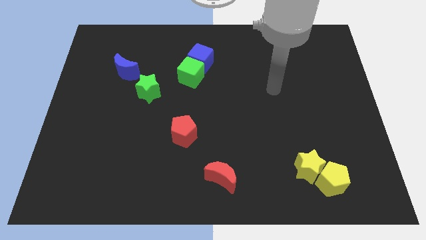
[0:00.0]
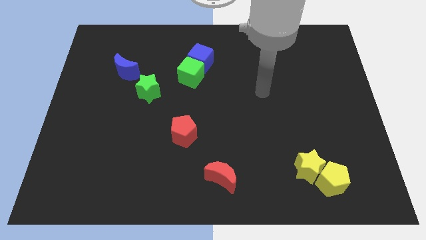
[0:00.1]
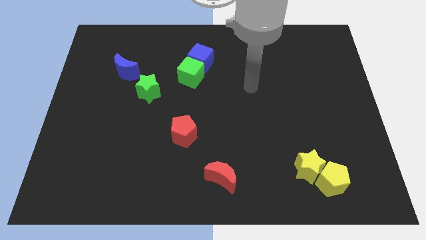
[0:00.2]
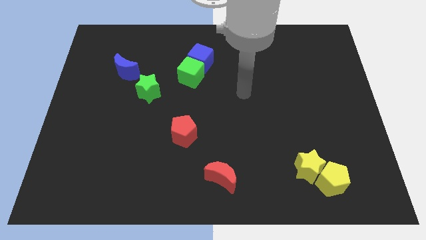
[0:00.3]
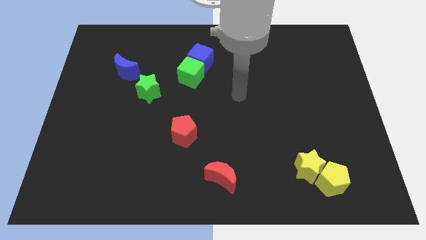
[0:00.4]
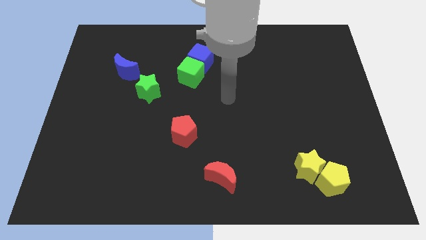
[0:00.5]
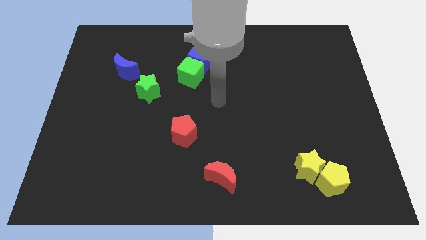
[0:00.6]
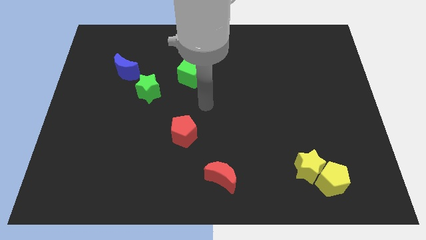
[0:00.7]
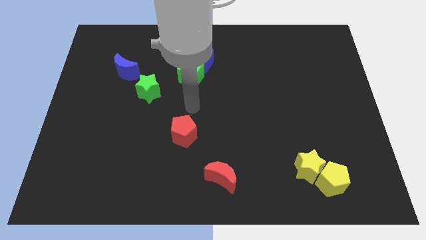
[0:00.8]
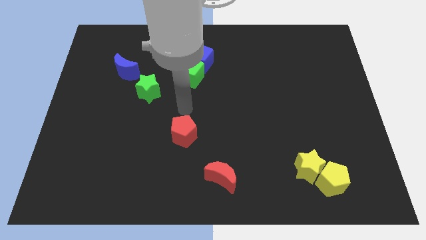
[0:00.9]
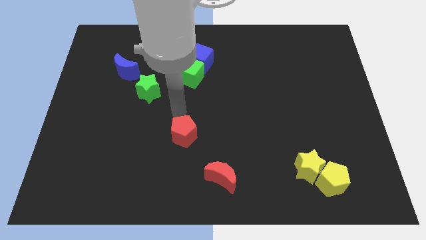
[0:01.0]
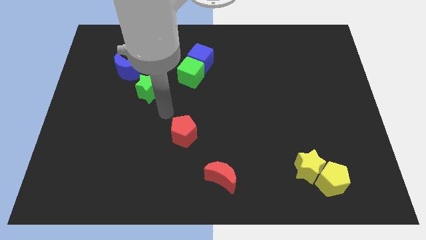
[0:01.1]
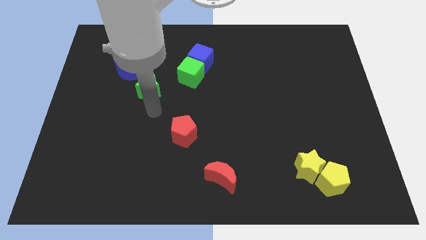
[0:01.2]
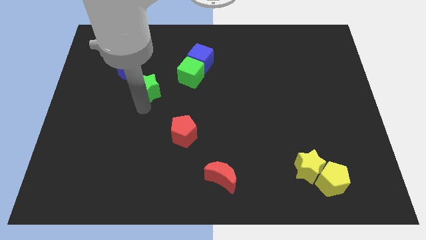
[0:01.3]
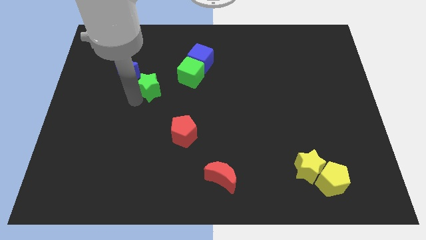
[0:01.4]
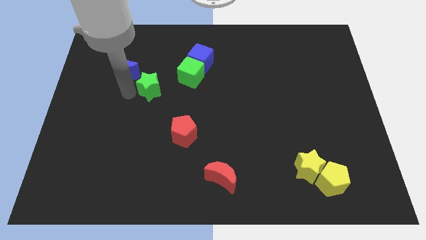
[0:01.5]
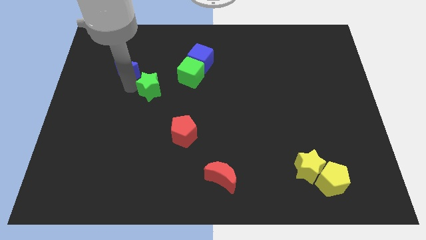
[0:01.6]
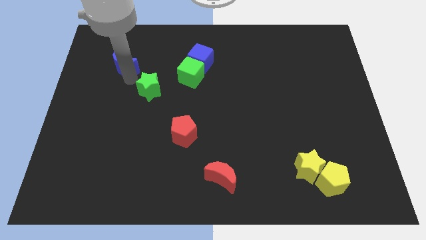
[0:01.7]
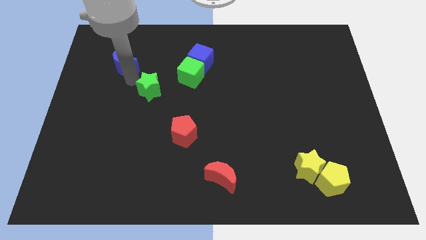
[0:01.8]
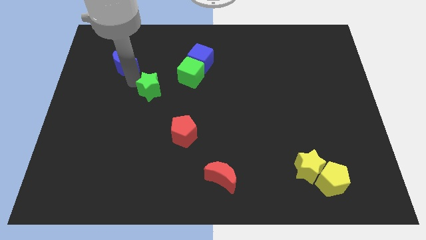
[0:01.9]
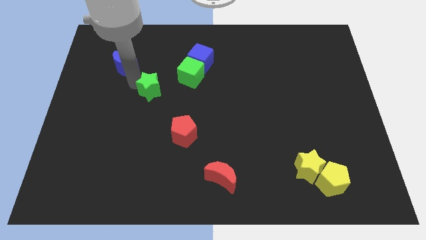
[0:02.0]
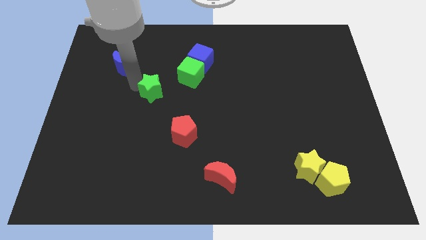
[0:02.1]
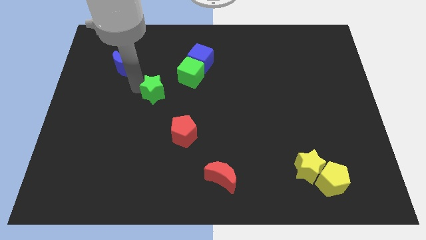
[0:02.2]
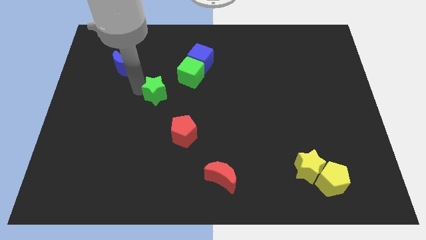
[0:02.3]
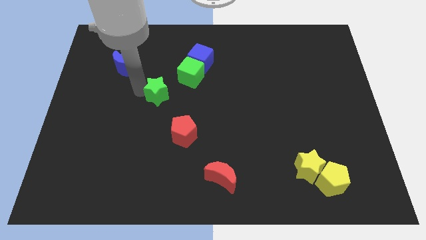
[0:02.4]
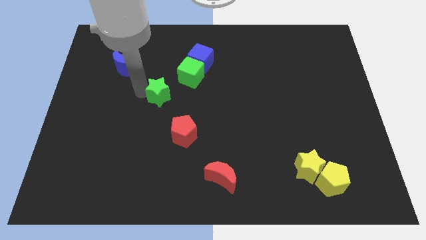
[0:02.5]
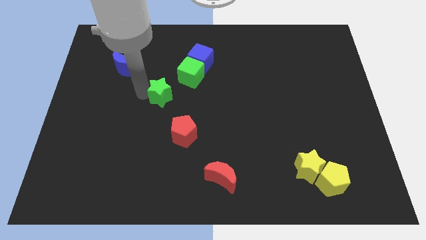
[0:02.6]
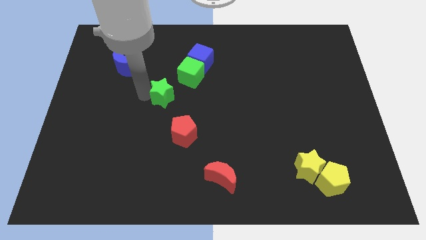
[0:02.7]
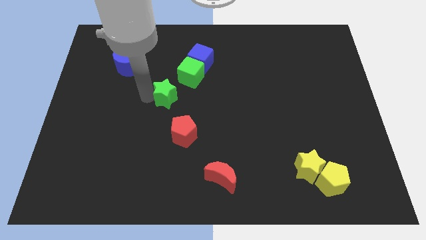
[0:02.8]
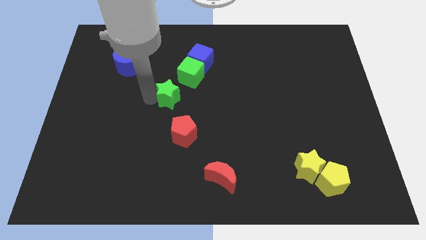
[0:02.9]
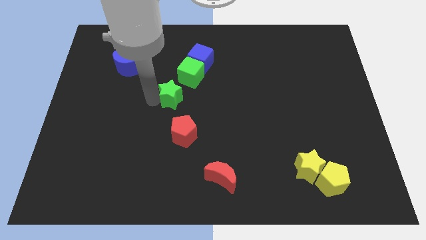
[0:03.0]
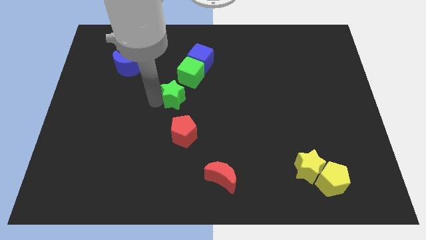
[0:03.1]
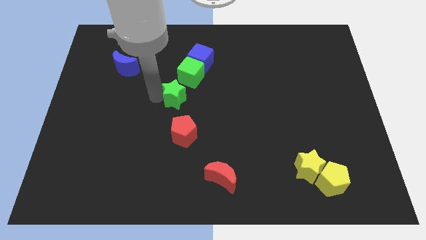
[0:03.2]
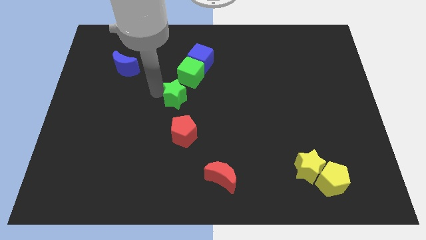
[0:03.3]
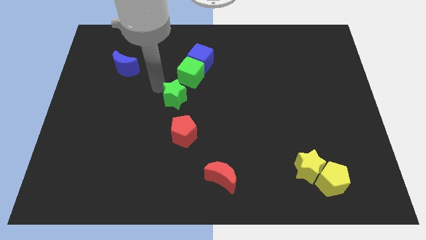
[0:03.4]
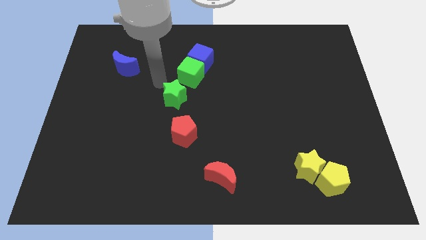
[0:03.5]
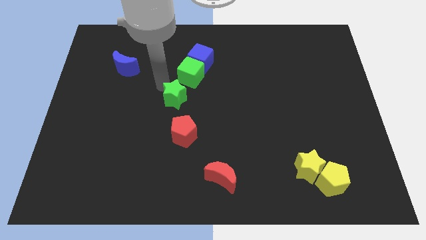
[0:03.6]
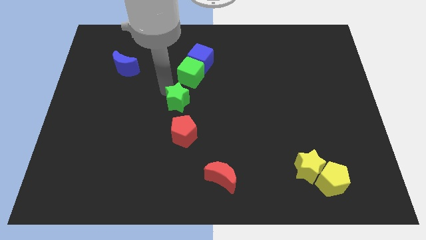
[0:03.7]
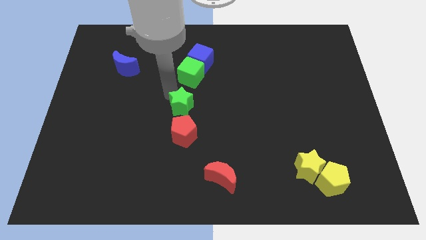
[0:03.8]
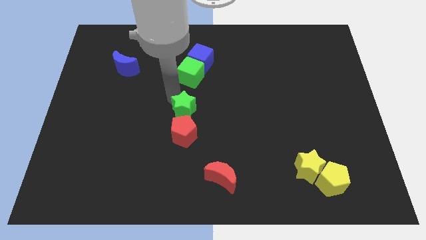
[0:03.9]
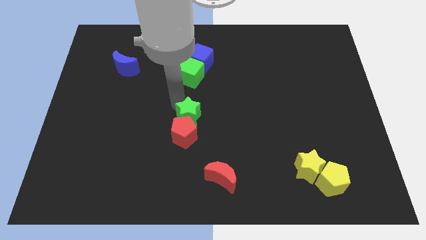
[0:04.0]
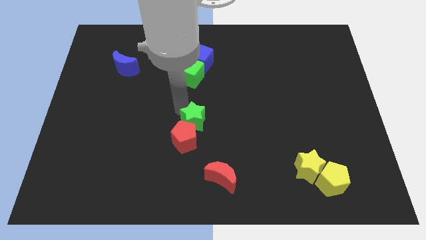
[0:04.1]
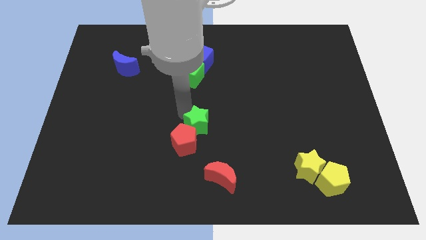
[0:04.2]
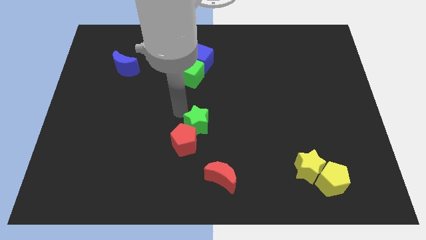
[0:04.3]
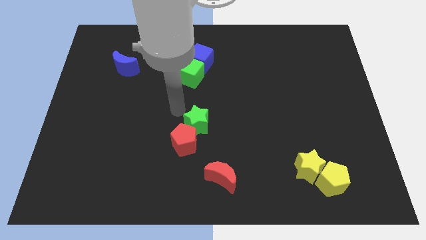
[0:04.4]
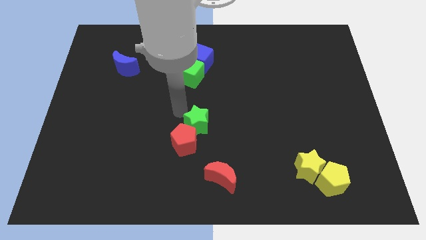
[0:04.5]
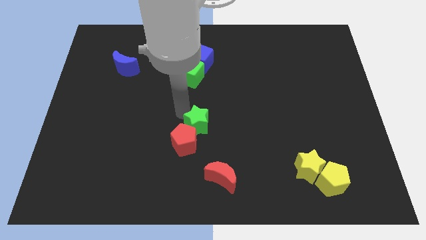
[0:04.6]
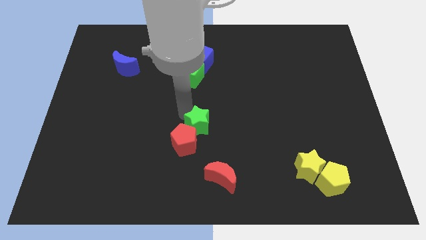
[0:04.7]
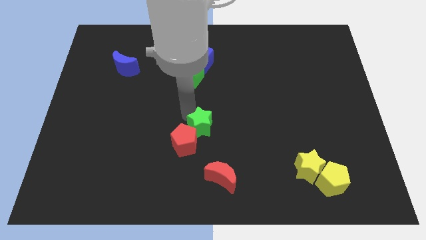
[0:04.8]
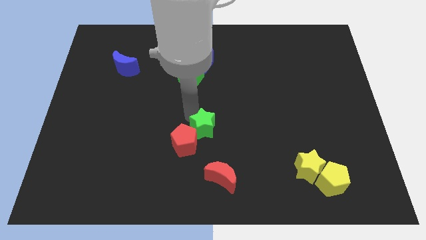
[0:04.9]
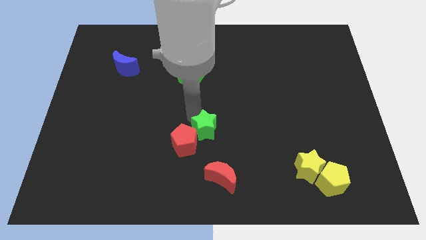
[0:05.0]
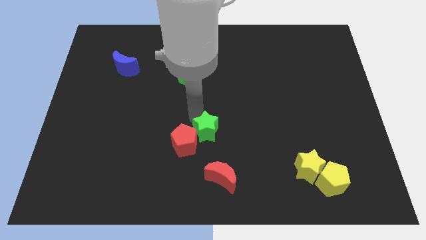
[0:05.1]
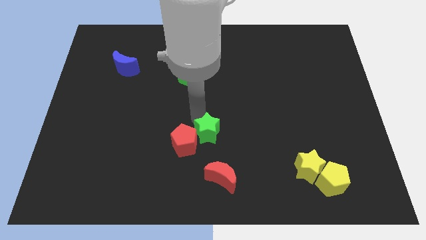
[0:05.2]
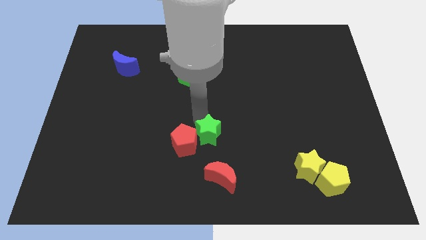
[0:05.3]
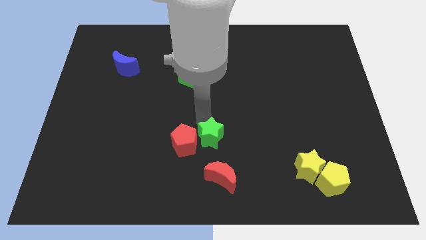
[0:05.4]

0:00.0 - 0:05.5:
move the green star downwards and right

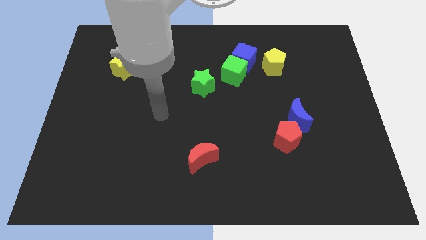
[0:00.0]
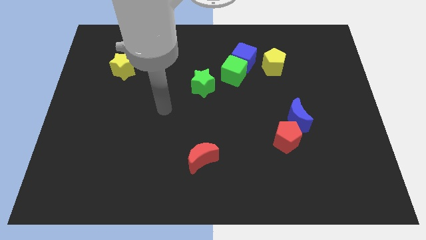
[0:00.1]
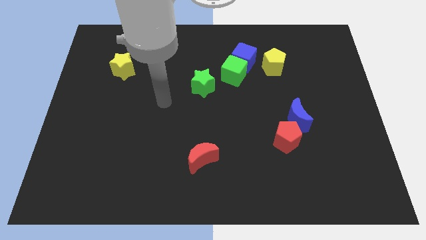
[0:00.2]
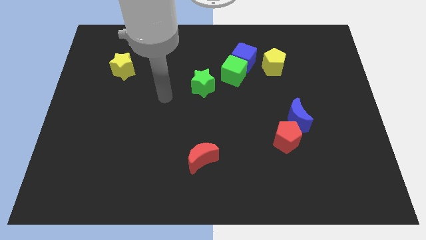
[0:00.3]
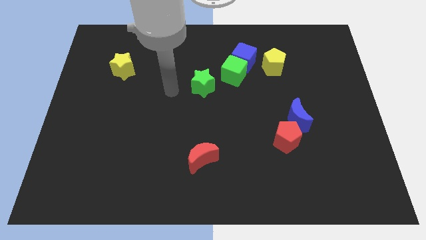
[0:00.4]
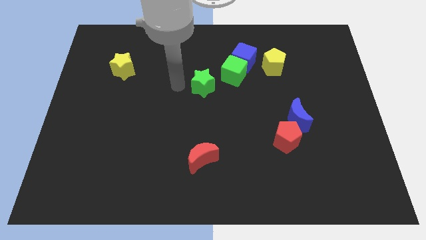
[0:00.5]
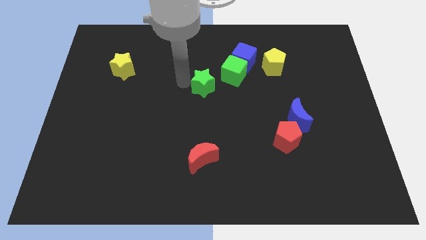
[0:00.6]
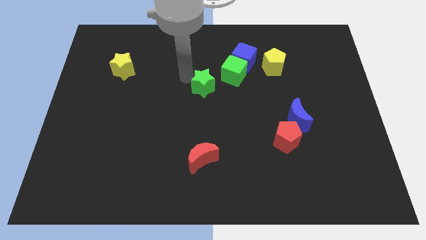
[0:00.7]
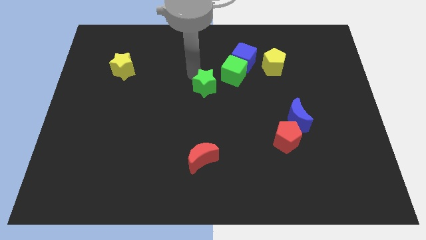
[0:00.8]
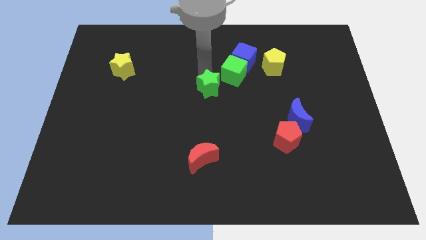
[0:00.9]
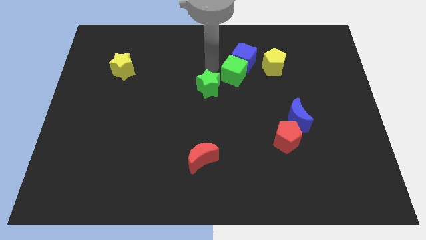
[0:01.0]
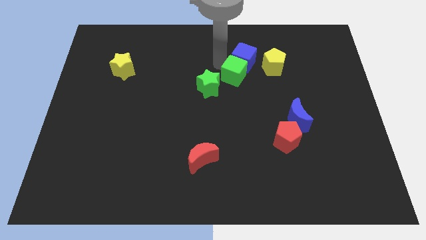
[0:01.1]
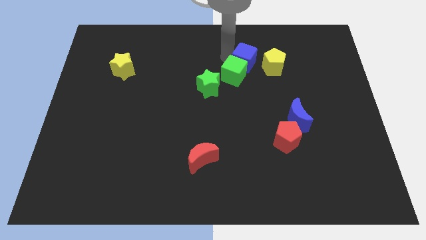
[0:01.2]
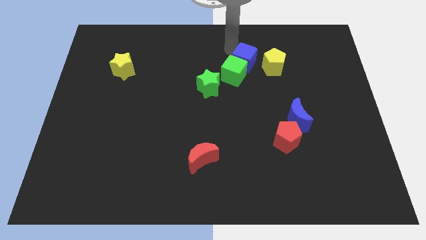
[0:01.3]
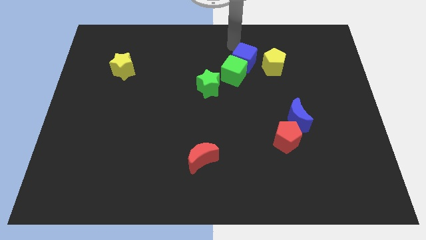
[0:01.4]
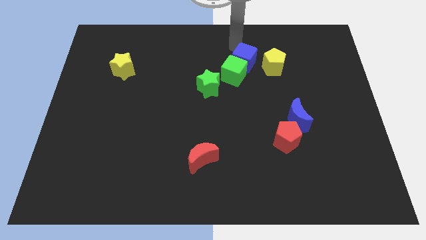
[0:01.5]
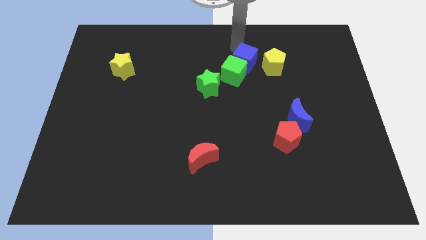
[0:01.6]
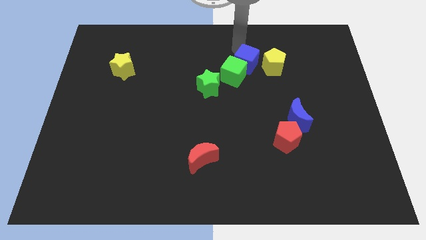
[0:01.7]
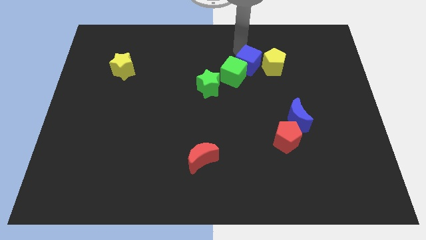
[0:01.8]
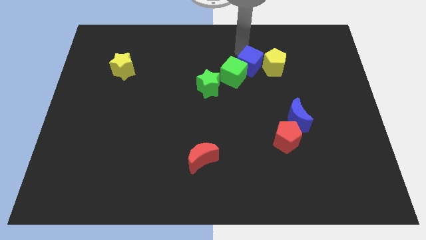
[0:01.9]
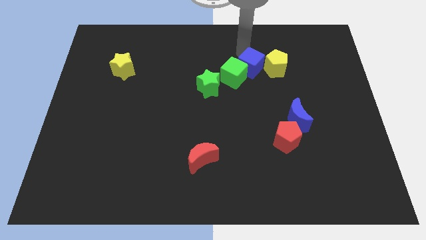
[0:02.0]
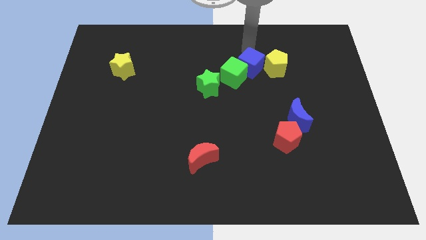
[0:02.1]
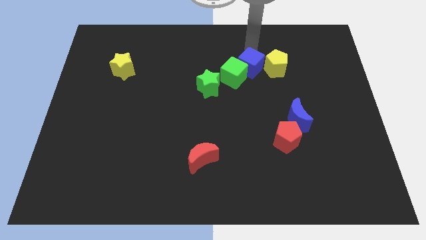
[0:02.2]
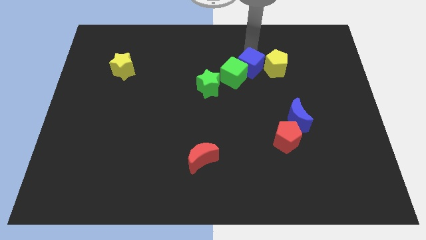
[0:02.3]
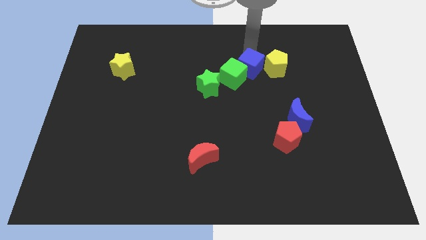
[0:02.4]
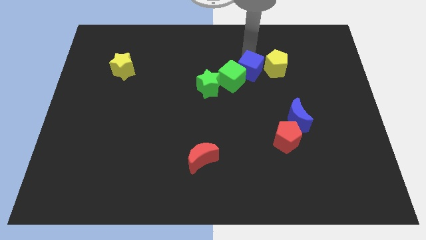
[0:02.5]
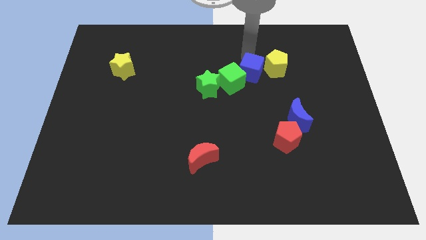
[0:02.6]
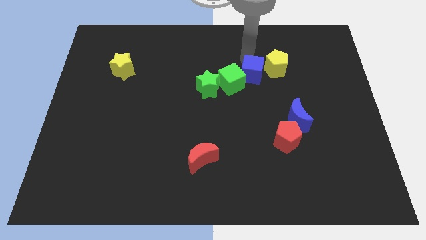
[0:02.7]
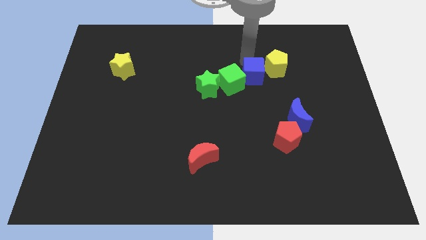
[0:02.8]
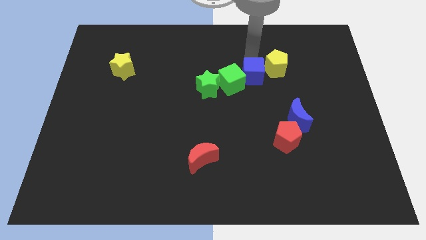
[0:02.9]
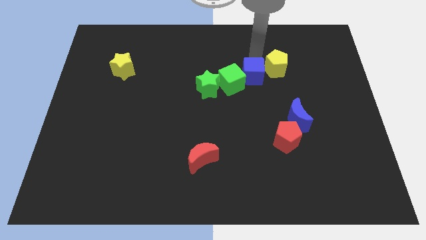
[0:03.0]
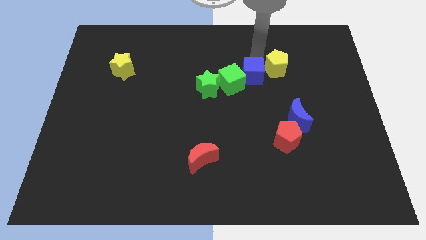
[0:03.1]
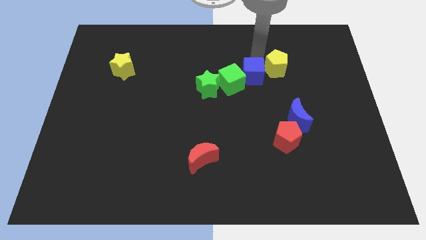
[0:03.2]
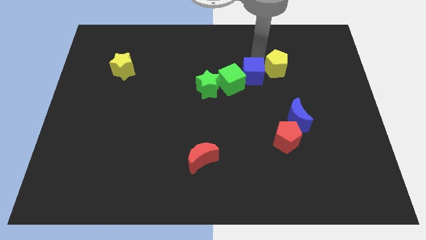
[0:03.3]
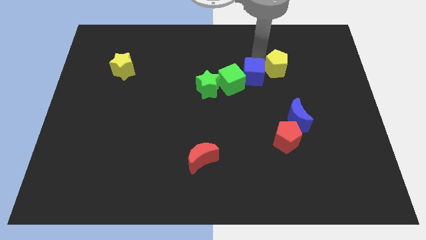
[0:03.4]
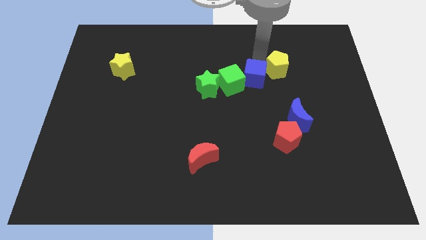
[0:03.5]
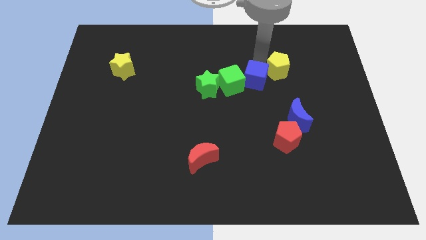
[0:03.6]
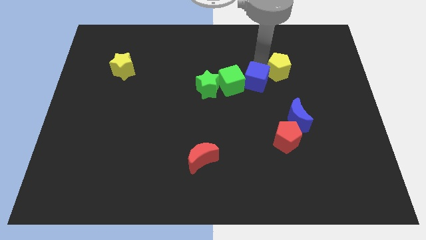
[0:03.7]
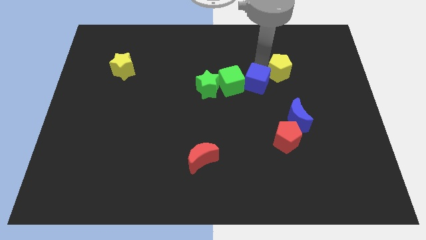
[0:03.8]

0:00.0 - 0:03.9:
move the blue cube a little downwards
